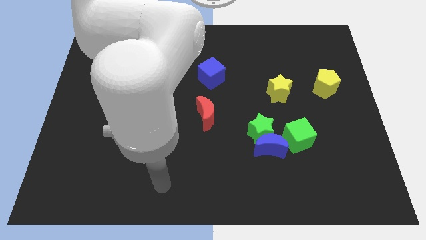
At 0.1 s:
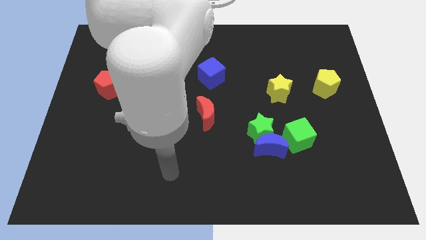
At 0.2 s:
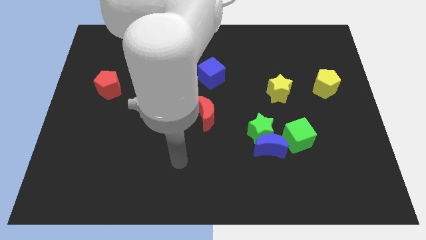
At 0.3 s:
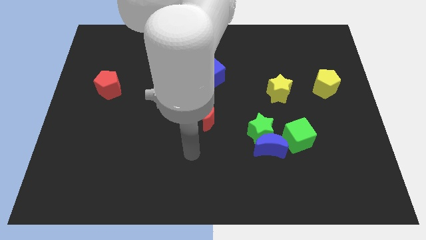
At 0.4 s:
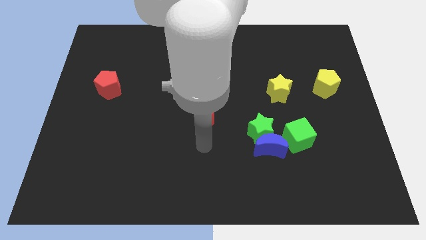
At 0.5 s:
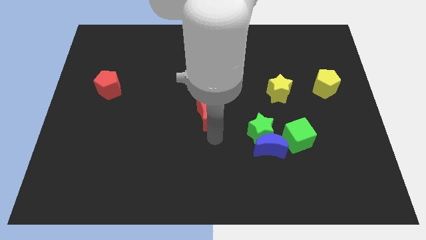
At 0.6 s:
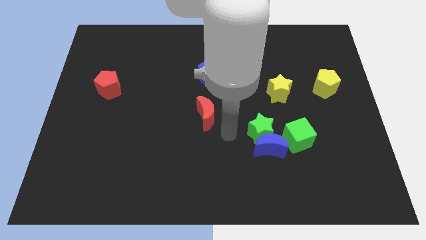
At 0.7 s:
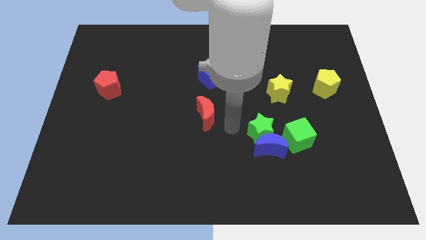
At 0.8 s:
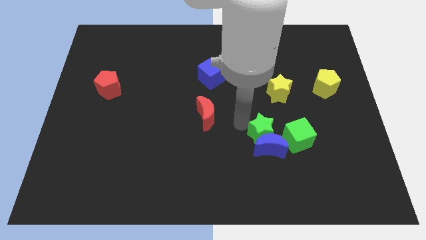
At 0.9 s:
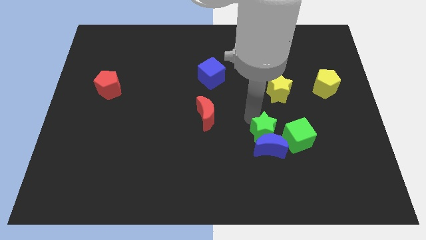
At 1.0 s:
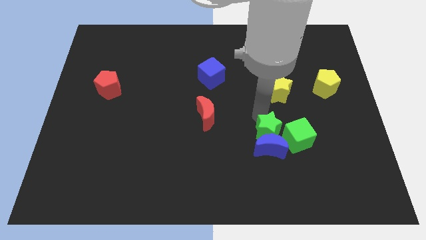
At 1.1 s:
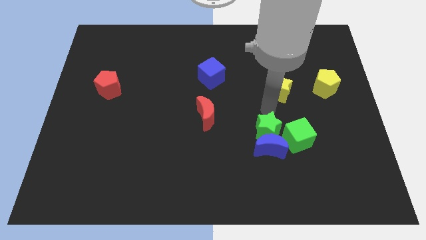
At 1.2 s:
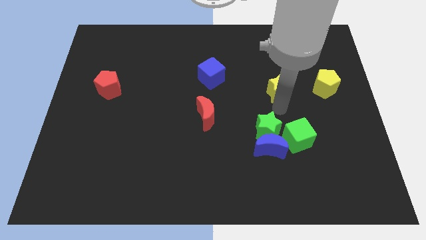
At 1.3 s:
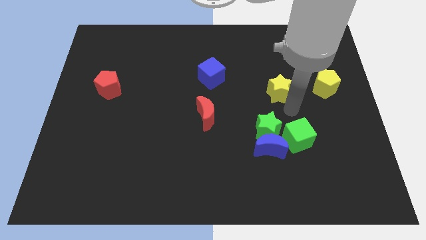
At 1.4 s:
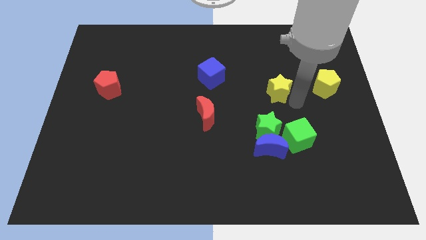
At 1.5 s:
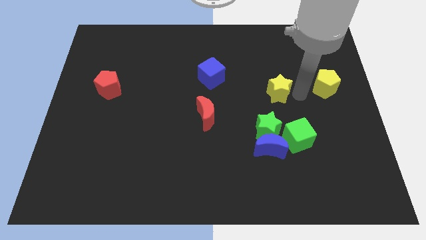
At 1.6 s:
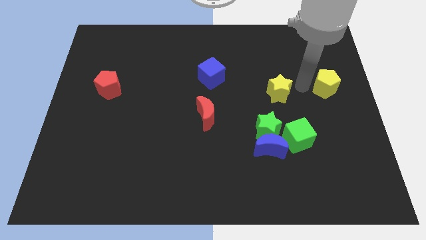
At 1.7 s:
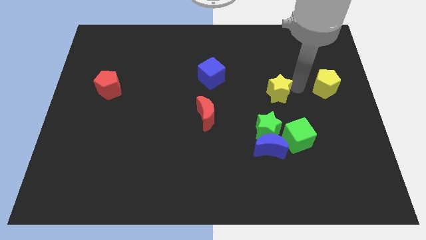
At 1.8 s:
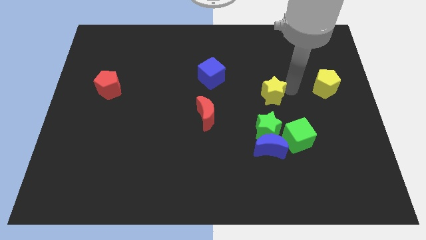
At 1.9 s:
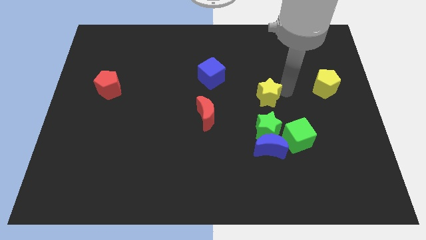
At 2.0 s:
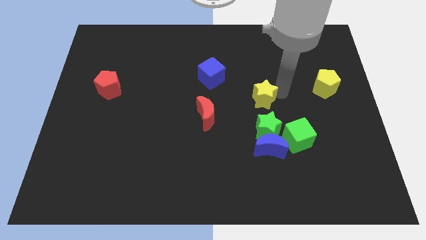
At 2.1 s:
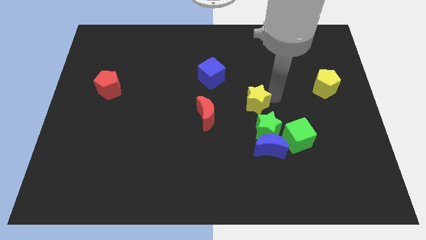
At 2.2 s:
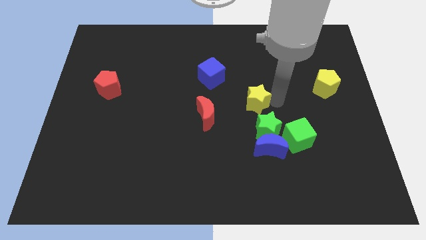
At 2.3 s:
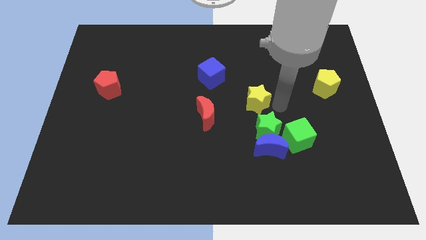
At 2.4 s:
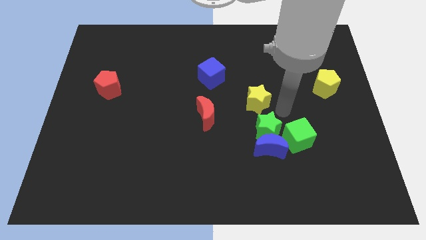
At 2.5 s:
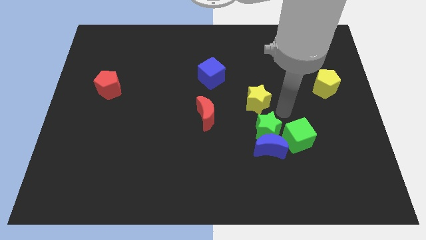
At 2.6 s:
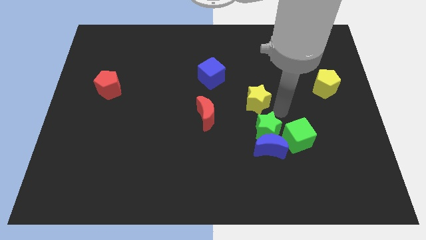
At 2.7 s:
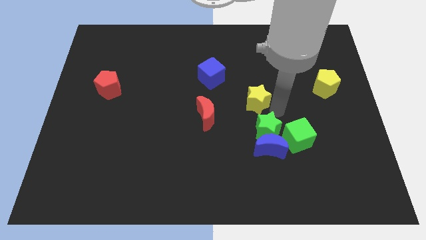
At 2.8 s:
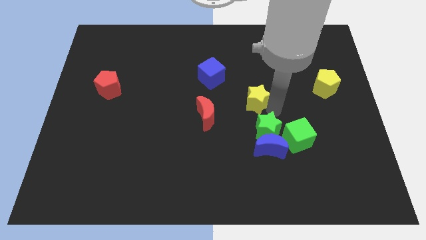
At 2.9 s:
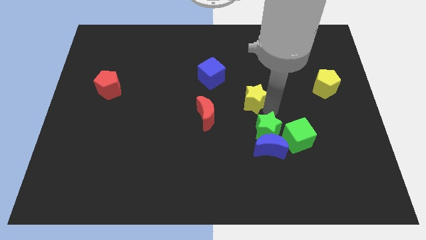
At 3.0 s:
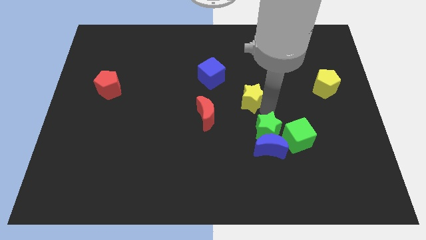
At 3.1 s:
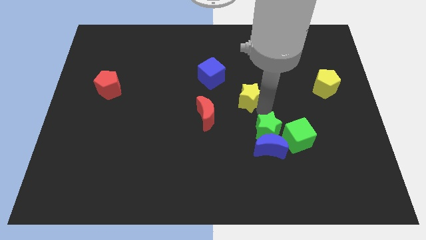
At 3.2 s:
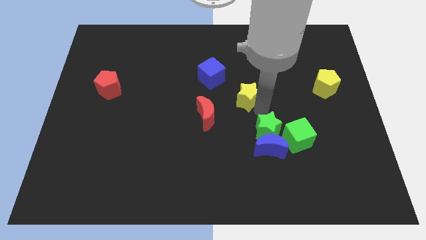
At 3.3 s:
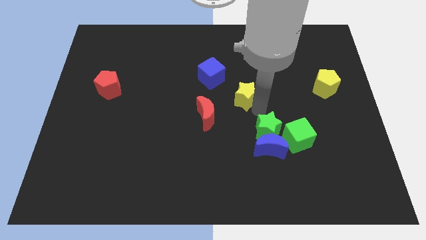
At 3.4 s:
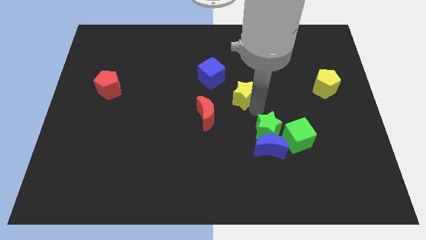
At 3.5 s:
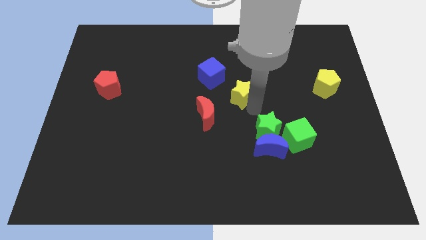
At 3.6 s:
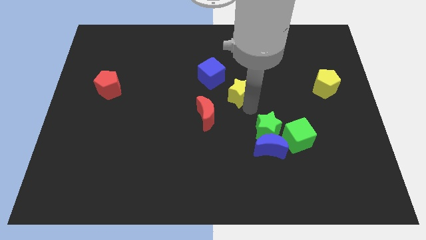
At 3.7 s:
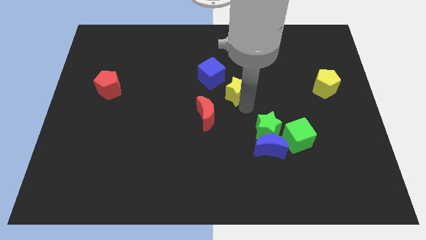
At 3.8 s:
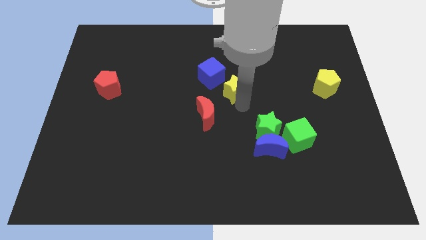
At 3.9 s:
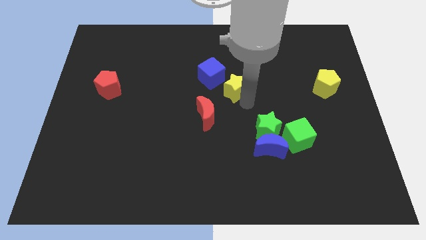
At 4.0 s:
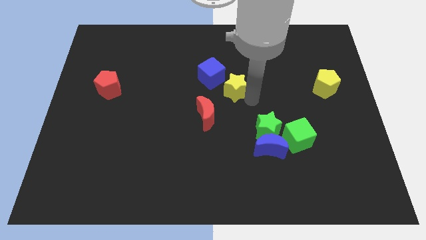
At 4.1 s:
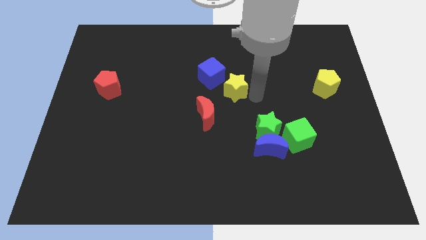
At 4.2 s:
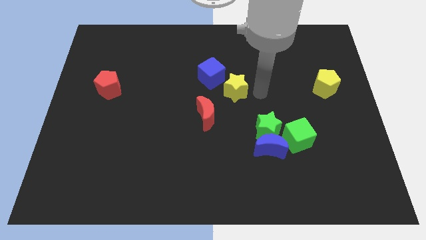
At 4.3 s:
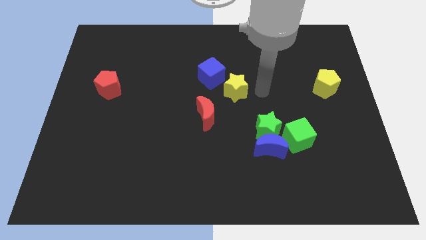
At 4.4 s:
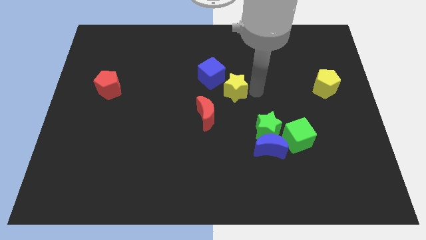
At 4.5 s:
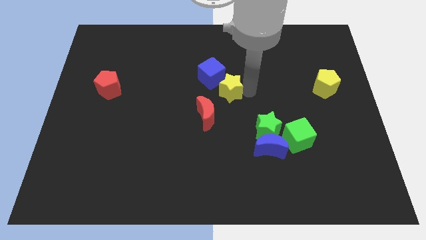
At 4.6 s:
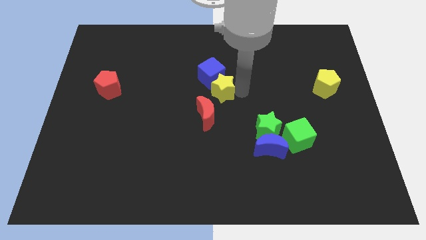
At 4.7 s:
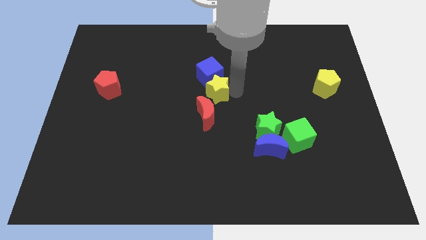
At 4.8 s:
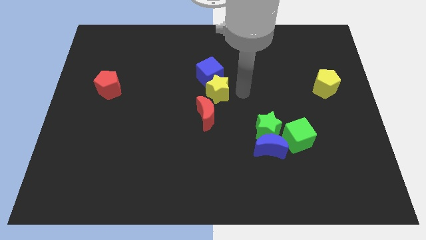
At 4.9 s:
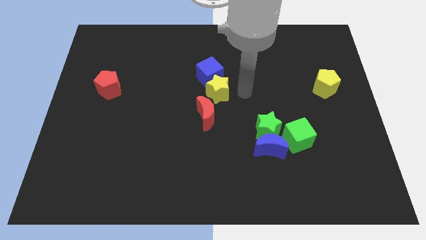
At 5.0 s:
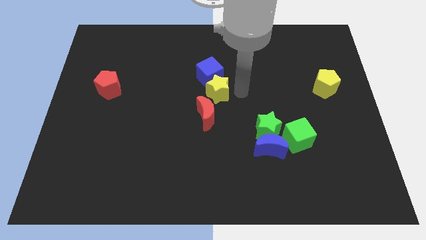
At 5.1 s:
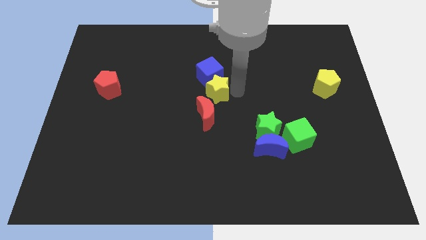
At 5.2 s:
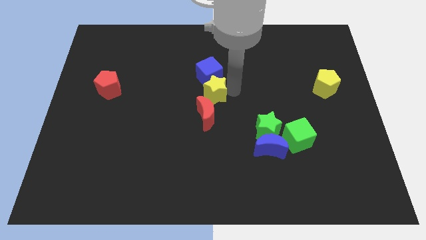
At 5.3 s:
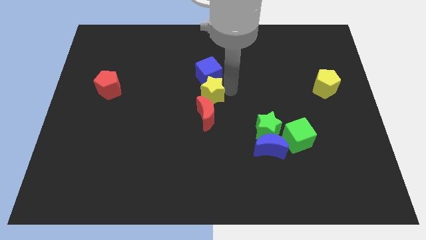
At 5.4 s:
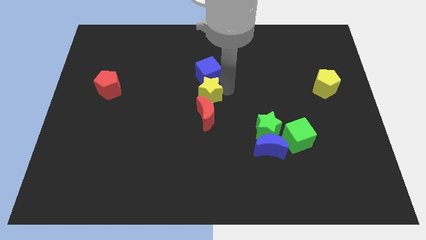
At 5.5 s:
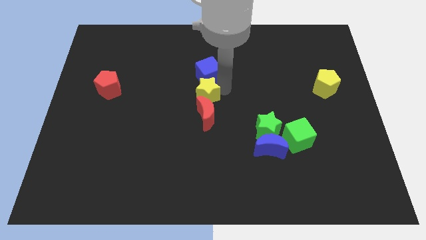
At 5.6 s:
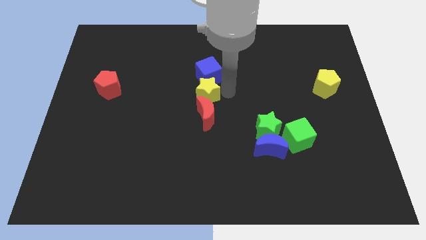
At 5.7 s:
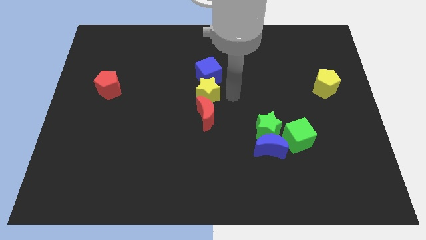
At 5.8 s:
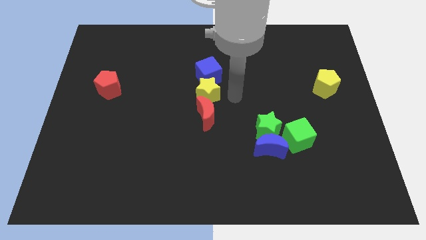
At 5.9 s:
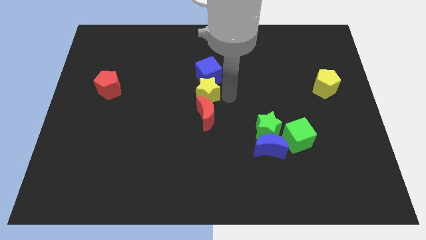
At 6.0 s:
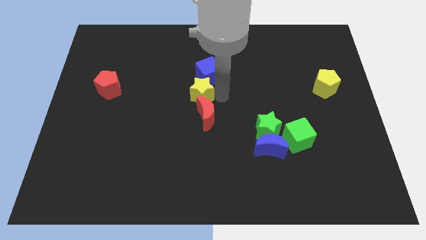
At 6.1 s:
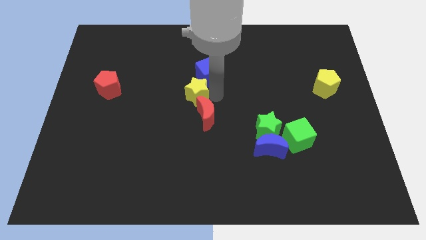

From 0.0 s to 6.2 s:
push the yellow star to the left

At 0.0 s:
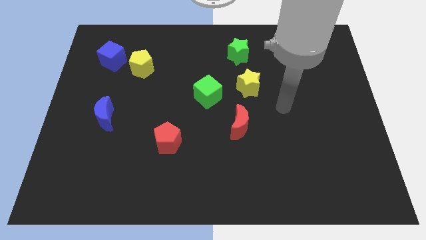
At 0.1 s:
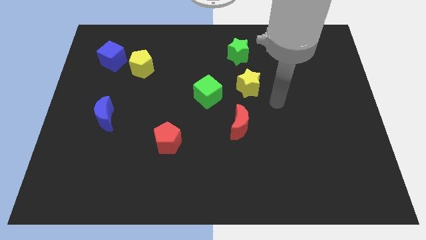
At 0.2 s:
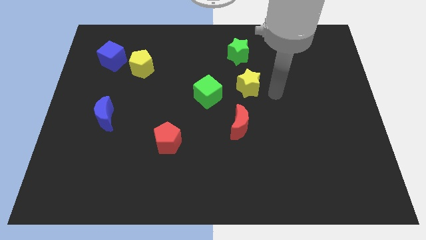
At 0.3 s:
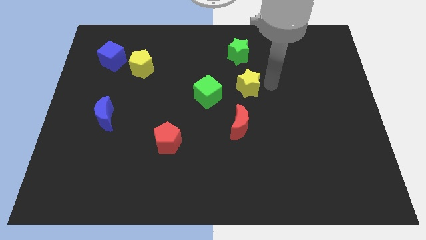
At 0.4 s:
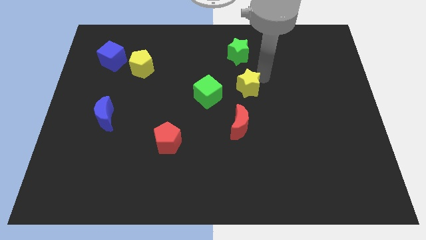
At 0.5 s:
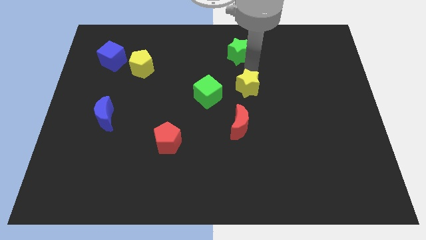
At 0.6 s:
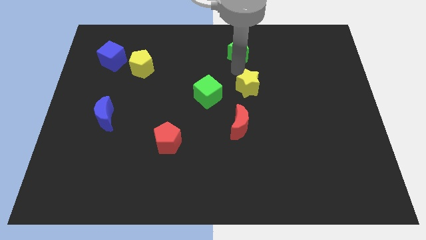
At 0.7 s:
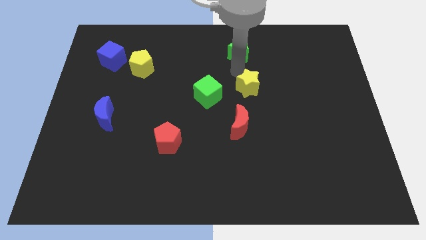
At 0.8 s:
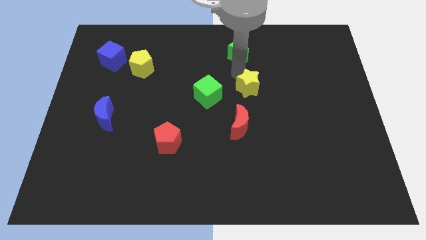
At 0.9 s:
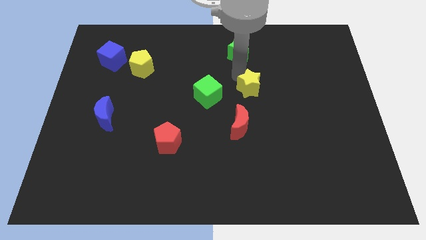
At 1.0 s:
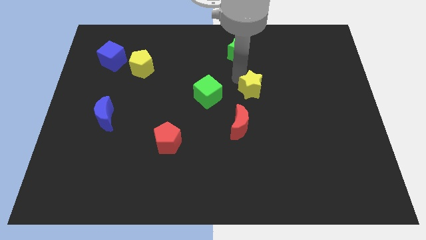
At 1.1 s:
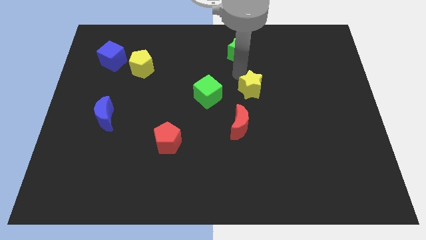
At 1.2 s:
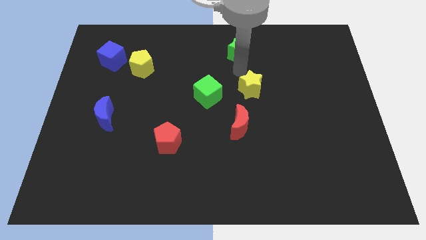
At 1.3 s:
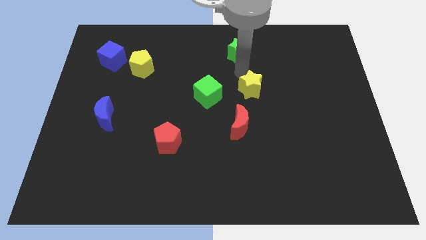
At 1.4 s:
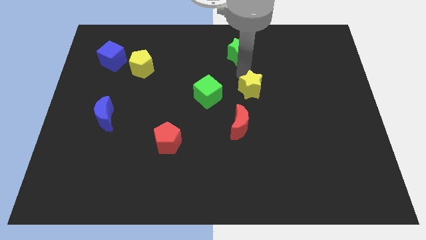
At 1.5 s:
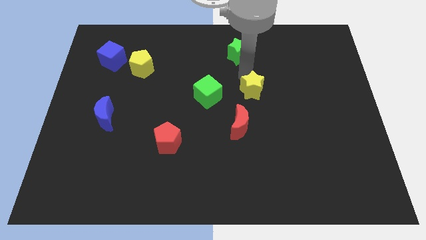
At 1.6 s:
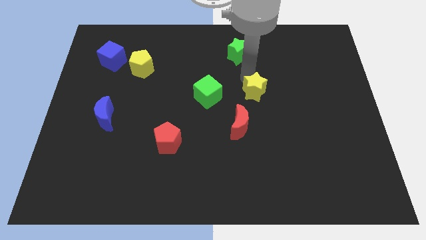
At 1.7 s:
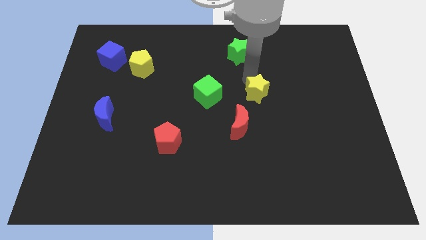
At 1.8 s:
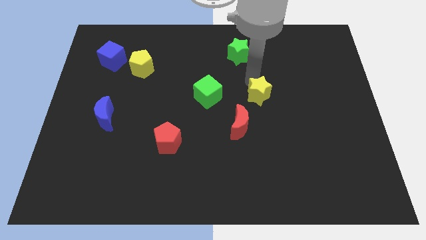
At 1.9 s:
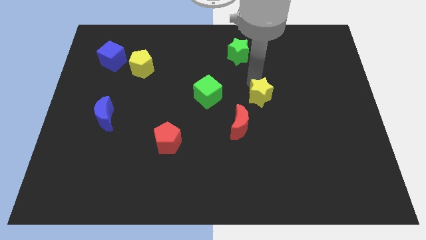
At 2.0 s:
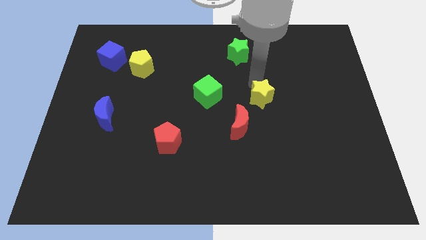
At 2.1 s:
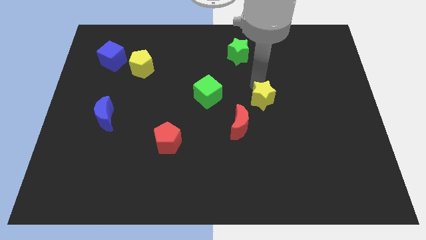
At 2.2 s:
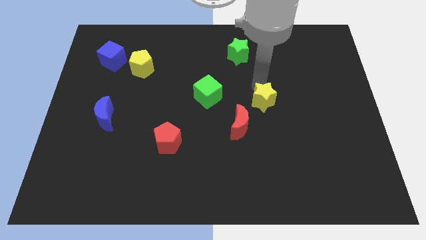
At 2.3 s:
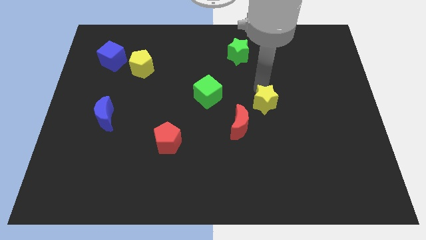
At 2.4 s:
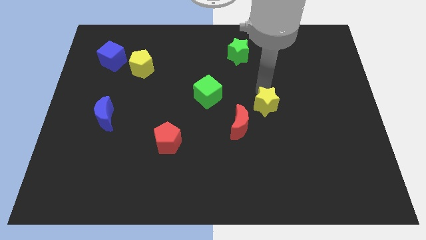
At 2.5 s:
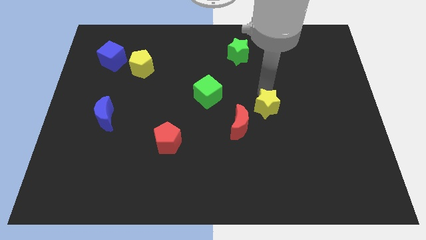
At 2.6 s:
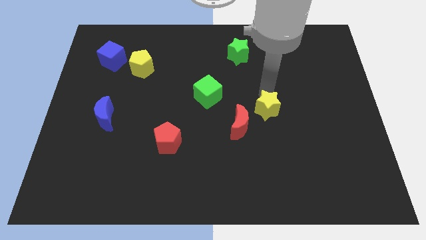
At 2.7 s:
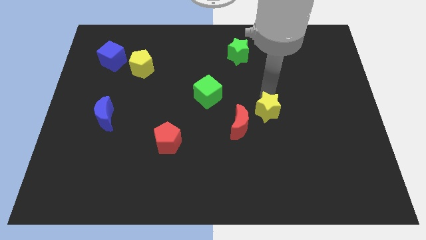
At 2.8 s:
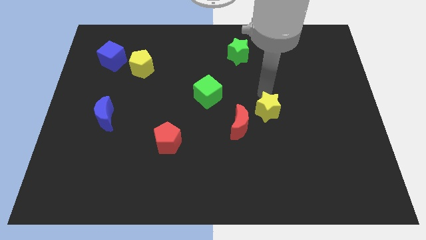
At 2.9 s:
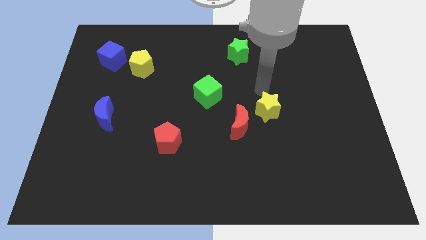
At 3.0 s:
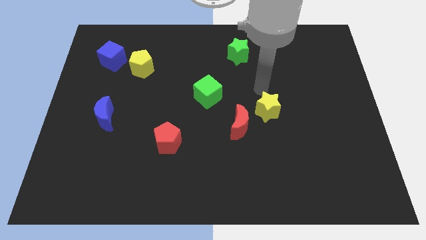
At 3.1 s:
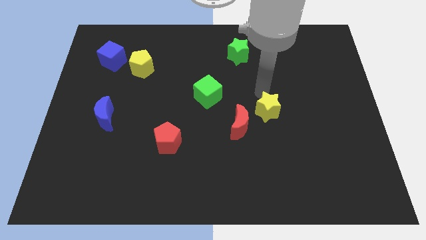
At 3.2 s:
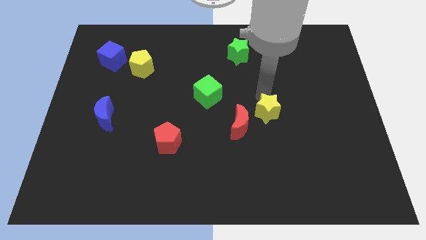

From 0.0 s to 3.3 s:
slide the yellow star a bit down
